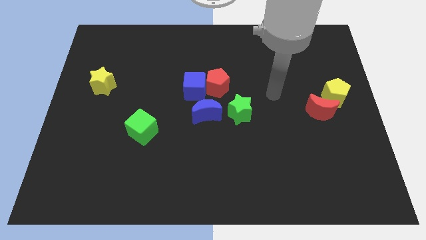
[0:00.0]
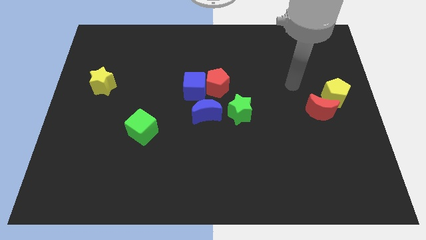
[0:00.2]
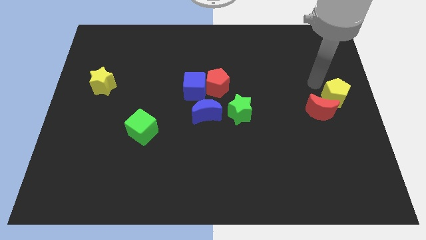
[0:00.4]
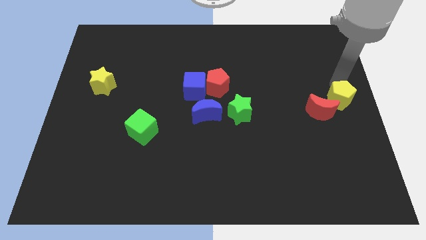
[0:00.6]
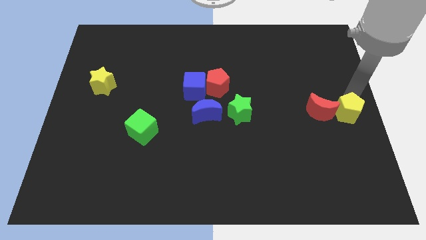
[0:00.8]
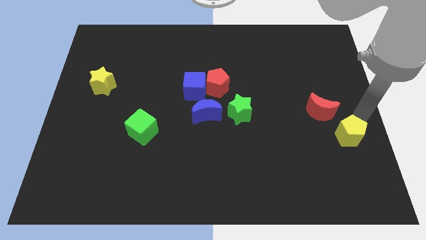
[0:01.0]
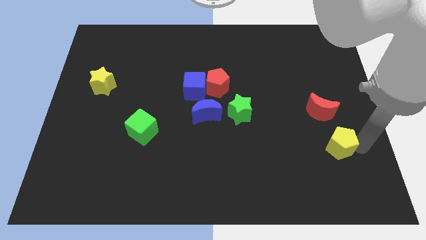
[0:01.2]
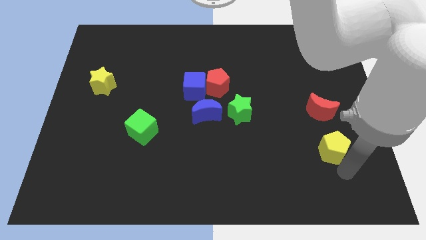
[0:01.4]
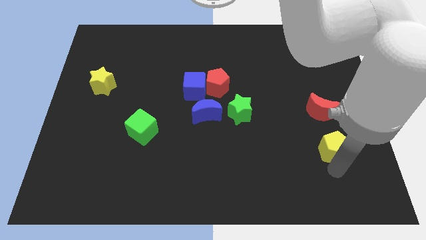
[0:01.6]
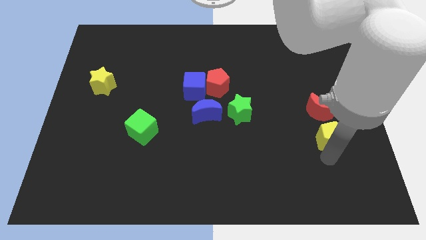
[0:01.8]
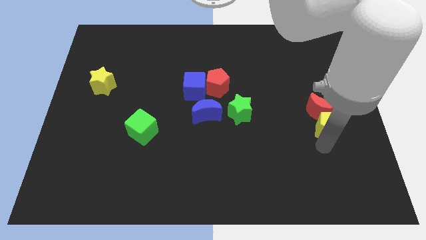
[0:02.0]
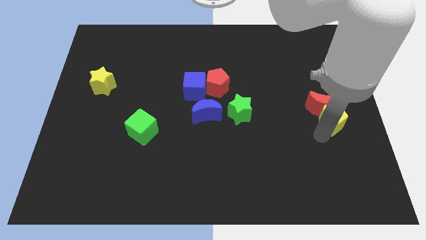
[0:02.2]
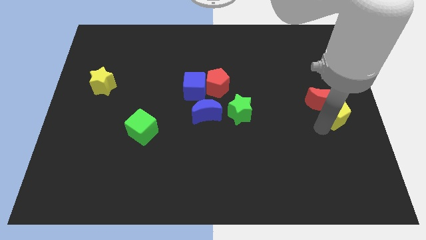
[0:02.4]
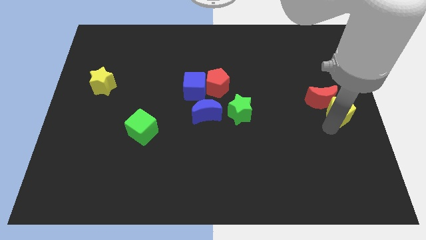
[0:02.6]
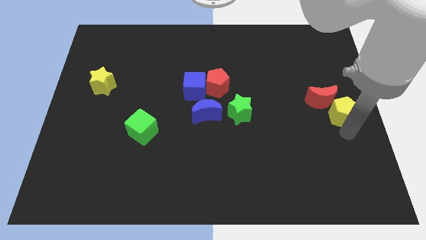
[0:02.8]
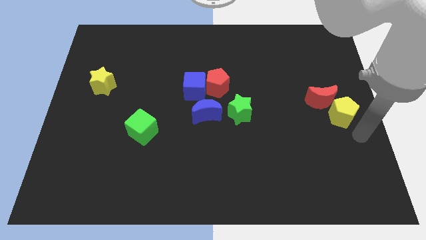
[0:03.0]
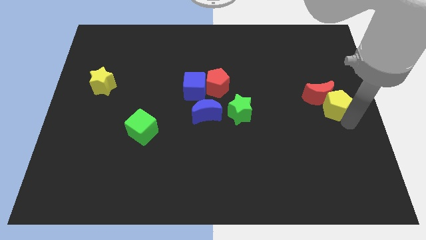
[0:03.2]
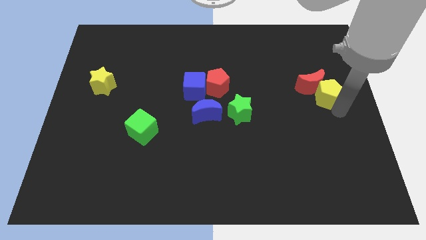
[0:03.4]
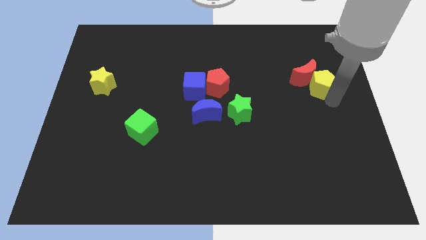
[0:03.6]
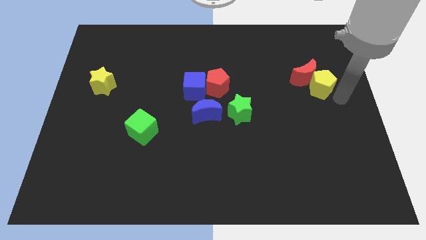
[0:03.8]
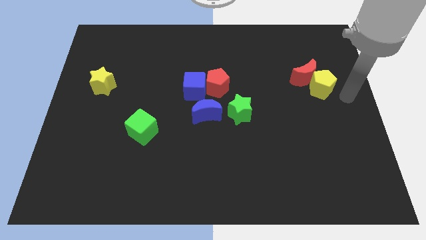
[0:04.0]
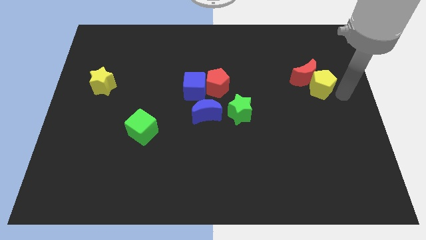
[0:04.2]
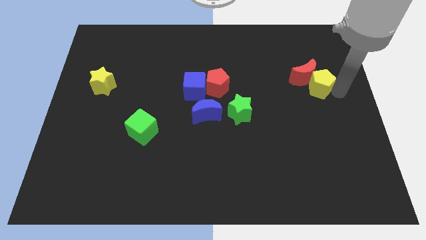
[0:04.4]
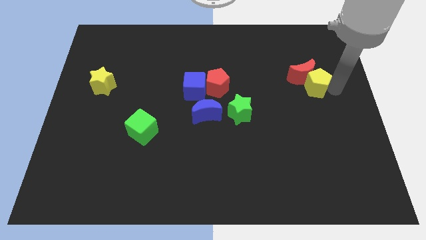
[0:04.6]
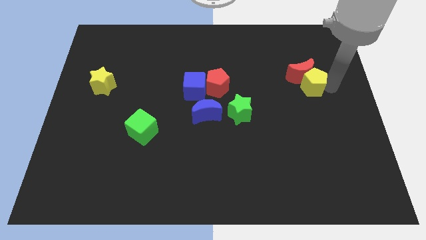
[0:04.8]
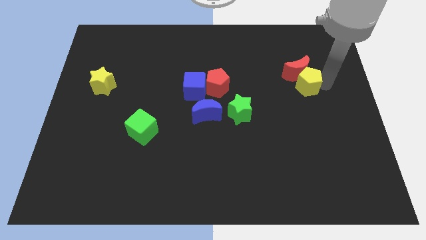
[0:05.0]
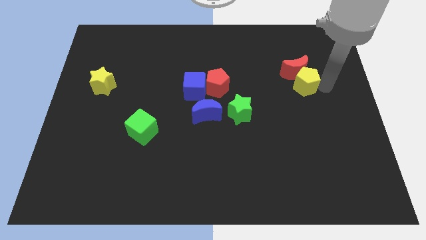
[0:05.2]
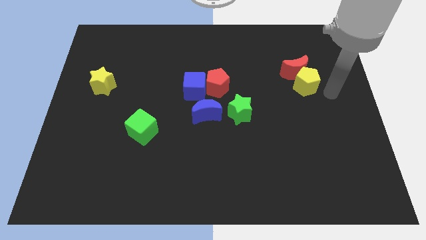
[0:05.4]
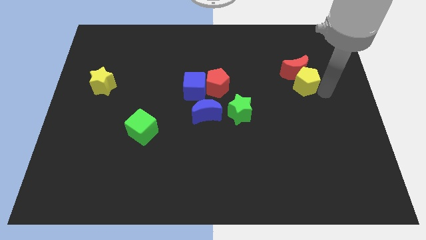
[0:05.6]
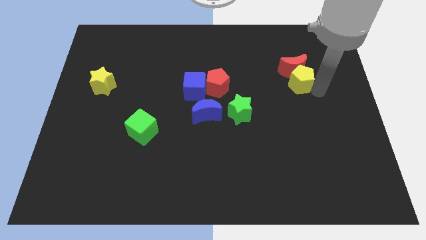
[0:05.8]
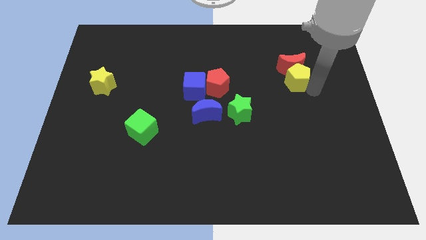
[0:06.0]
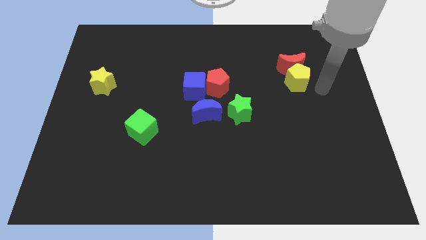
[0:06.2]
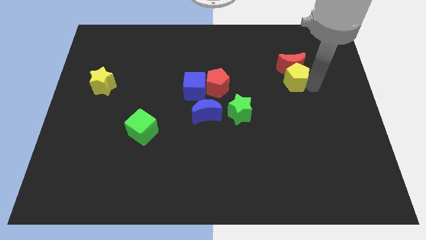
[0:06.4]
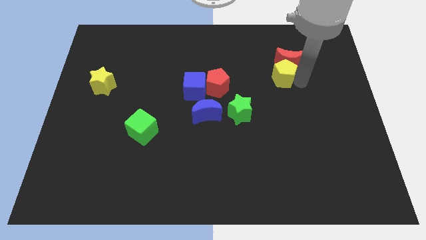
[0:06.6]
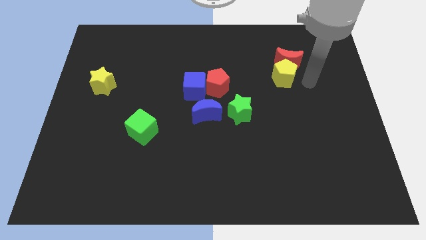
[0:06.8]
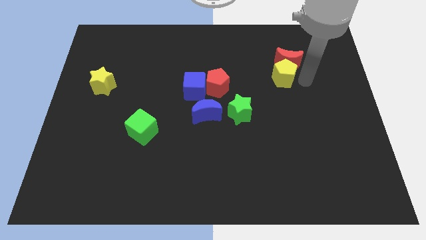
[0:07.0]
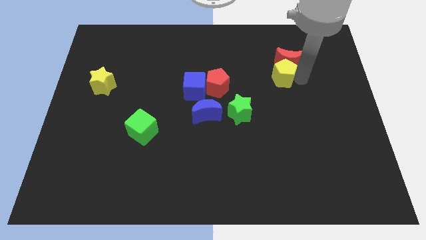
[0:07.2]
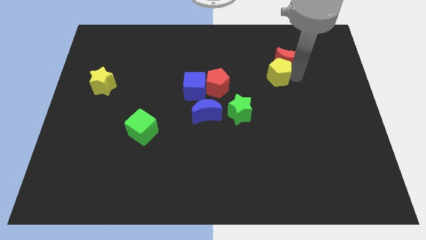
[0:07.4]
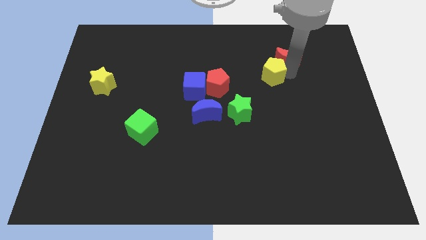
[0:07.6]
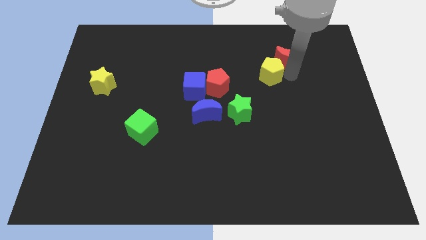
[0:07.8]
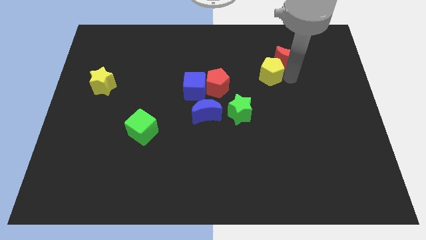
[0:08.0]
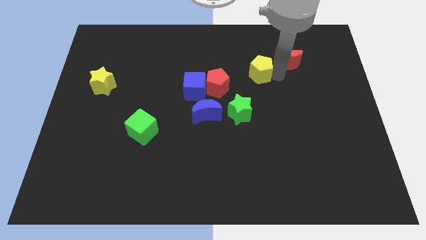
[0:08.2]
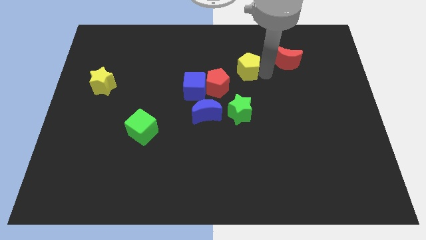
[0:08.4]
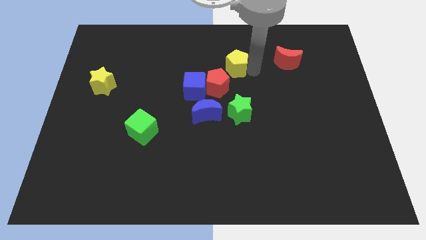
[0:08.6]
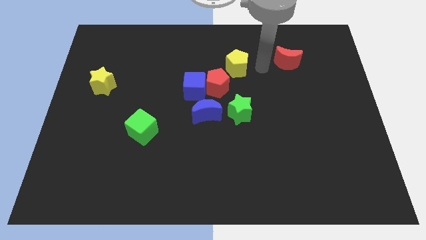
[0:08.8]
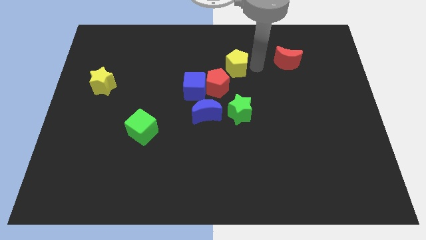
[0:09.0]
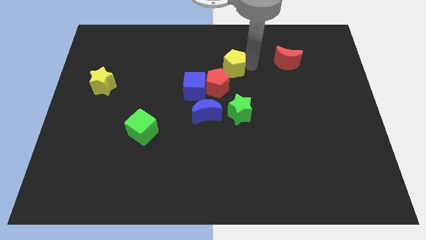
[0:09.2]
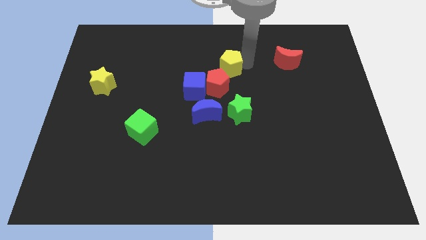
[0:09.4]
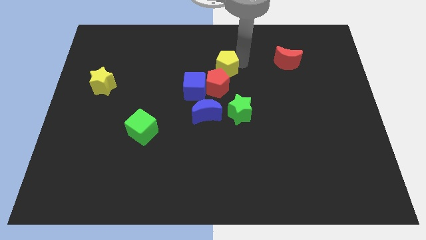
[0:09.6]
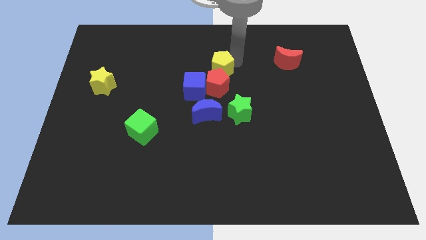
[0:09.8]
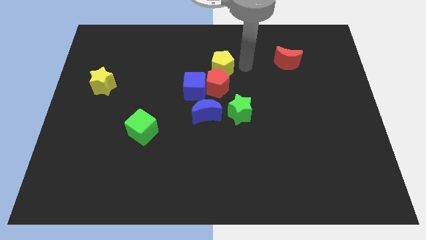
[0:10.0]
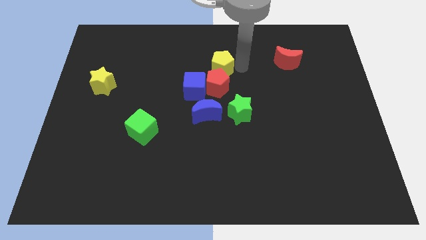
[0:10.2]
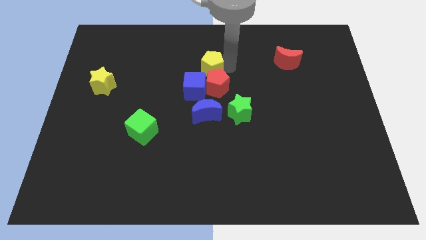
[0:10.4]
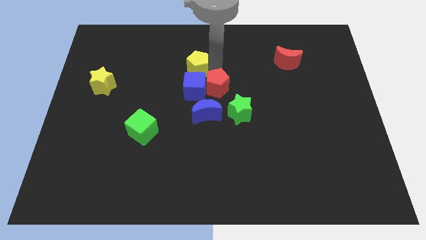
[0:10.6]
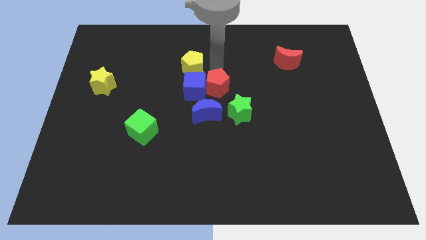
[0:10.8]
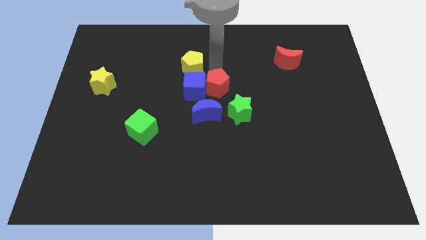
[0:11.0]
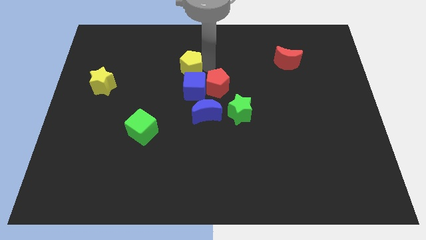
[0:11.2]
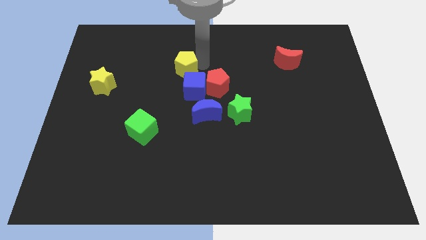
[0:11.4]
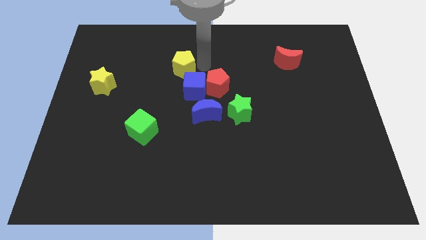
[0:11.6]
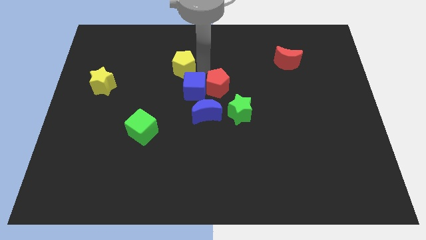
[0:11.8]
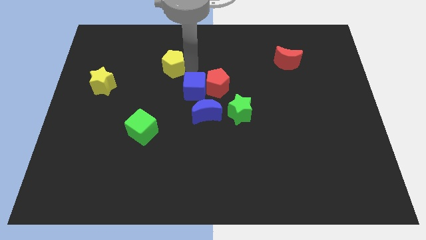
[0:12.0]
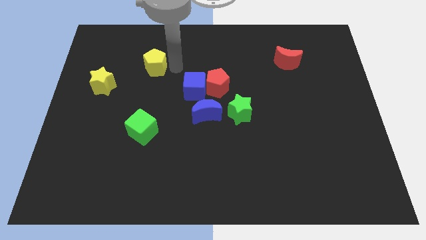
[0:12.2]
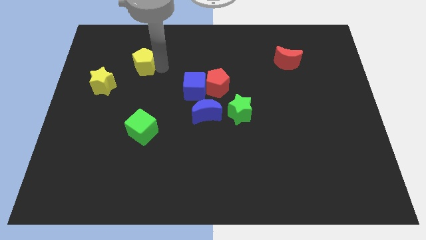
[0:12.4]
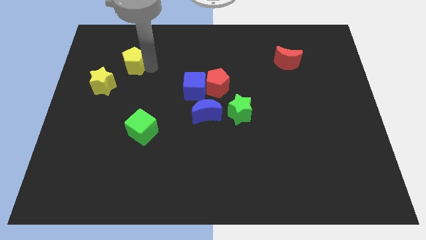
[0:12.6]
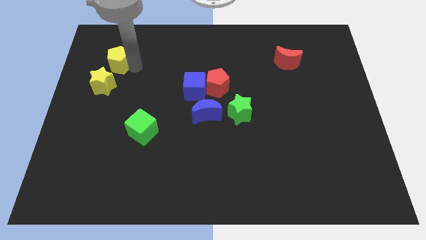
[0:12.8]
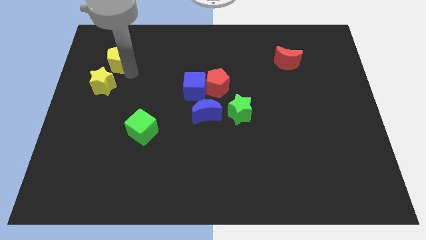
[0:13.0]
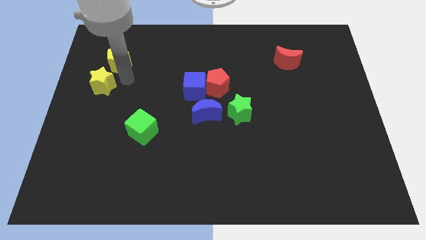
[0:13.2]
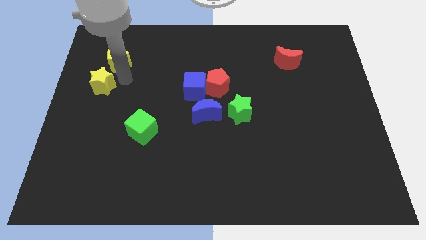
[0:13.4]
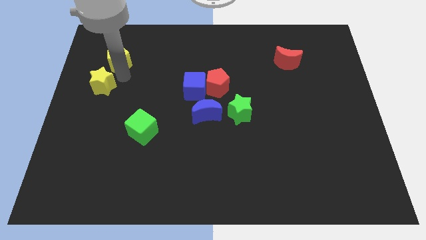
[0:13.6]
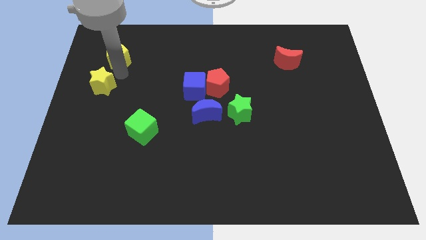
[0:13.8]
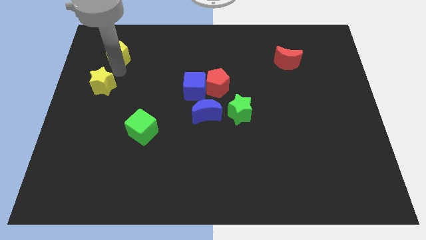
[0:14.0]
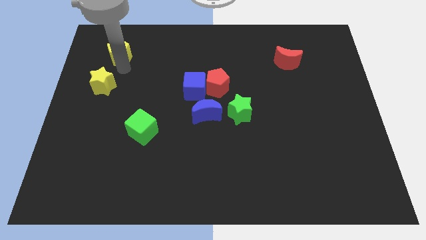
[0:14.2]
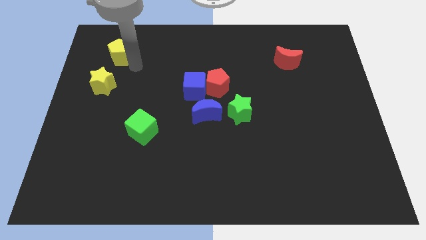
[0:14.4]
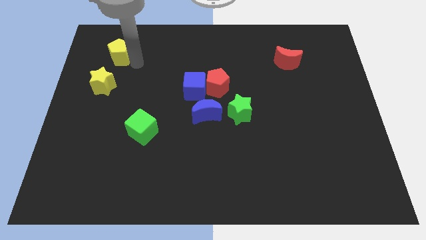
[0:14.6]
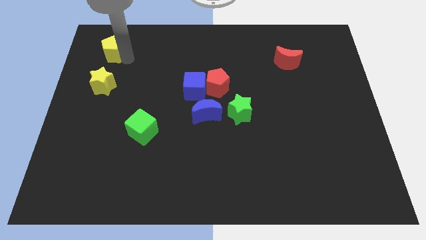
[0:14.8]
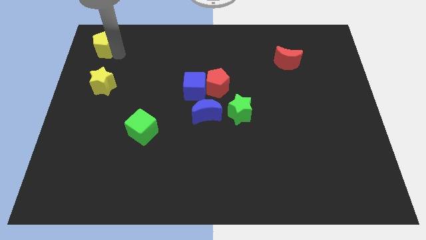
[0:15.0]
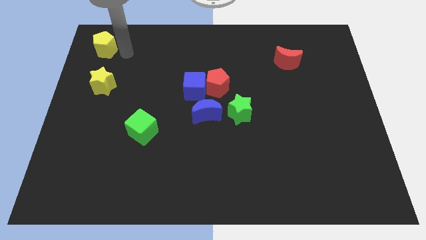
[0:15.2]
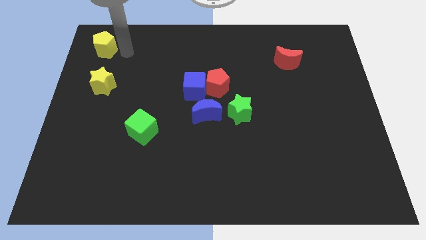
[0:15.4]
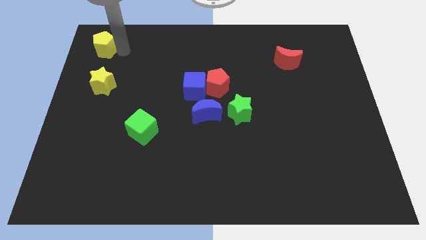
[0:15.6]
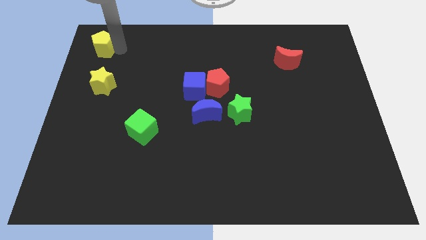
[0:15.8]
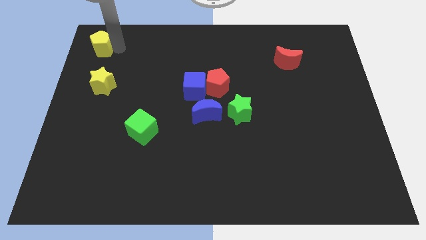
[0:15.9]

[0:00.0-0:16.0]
push the yellow pentagon to the top left corner
